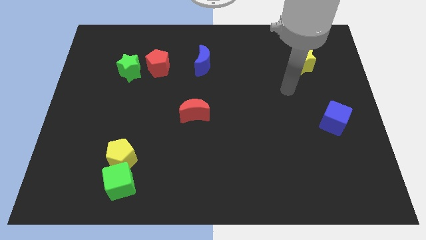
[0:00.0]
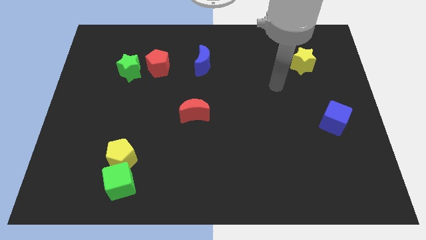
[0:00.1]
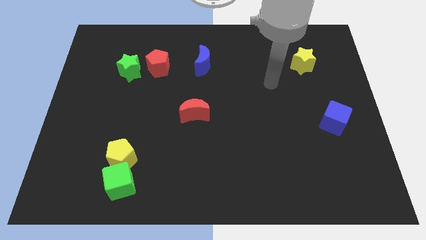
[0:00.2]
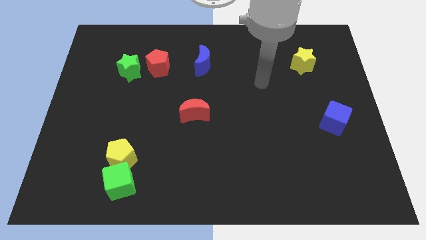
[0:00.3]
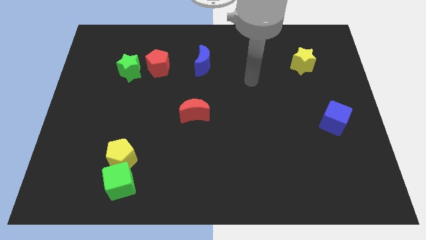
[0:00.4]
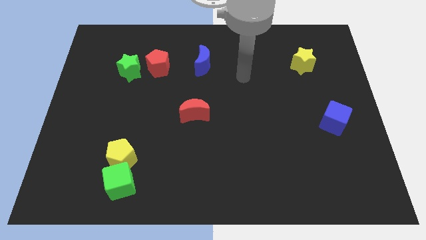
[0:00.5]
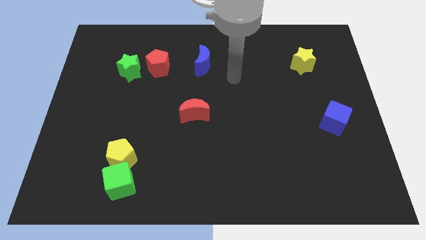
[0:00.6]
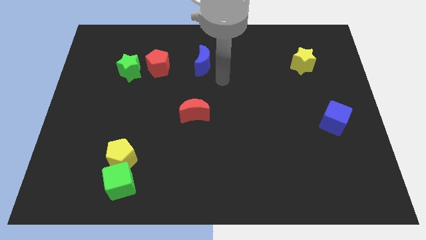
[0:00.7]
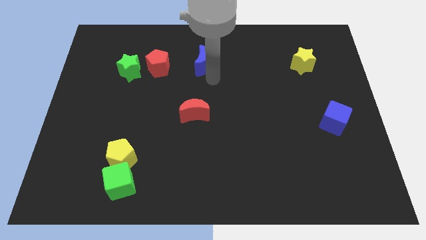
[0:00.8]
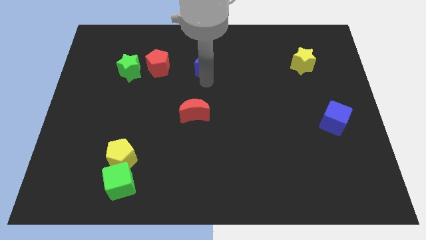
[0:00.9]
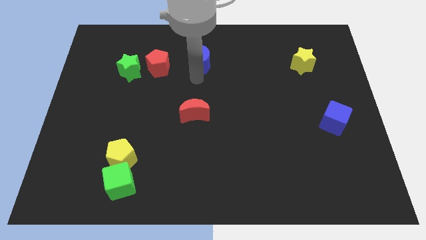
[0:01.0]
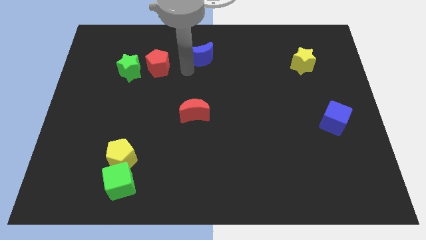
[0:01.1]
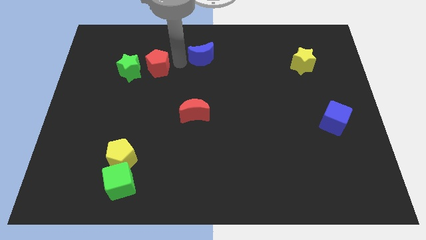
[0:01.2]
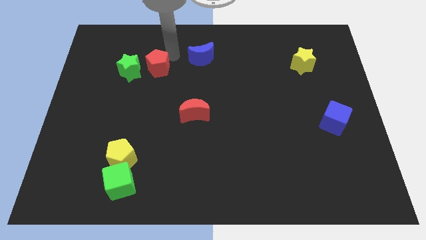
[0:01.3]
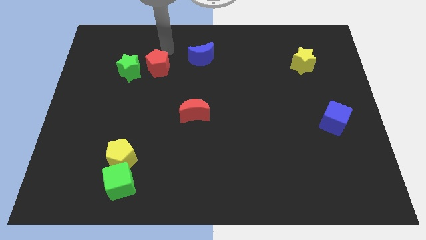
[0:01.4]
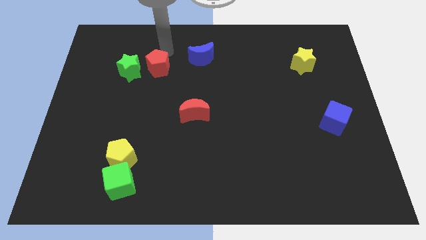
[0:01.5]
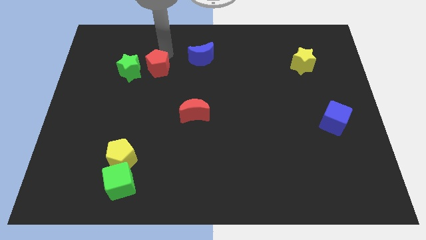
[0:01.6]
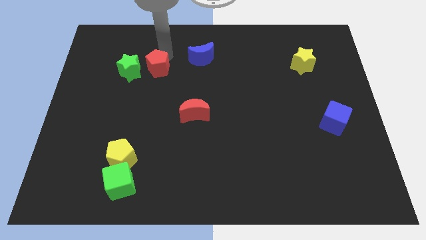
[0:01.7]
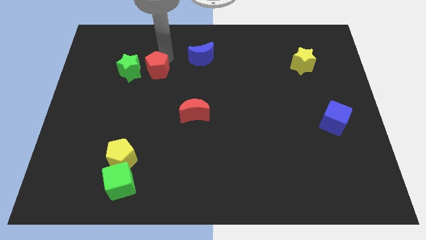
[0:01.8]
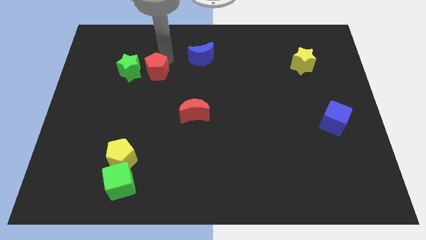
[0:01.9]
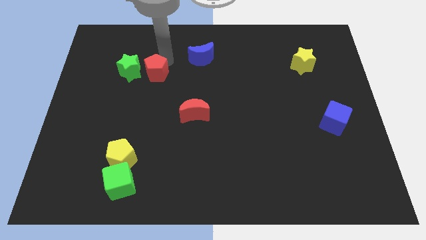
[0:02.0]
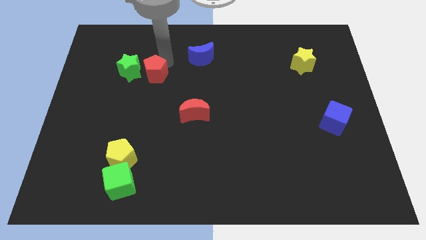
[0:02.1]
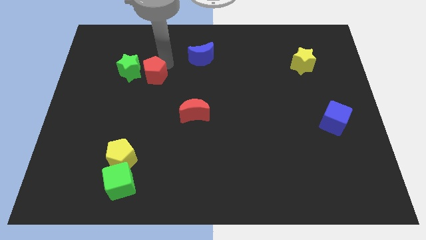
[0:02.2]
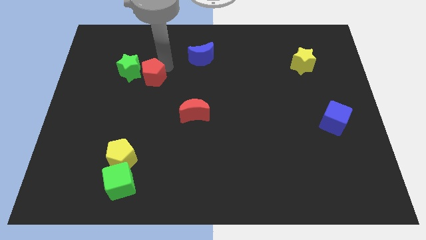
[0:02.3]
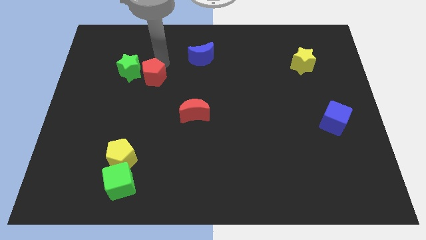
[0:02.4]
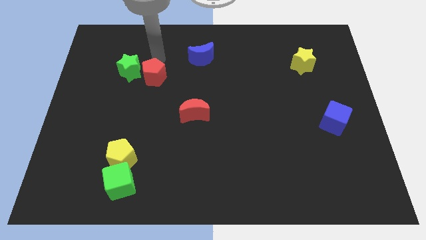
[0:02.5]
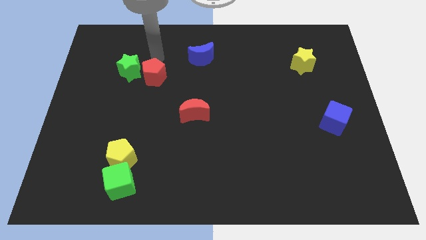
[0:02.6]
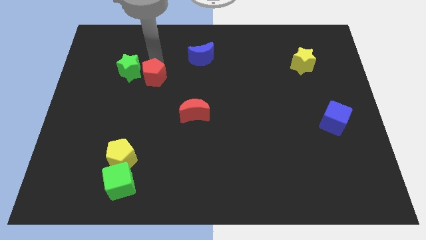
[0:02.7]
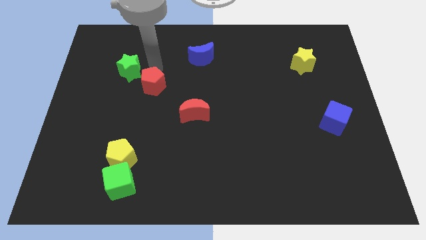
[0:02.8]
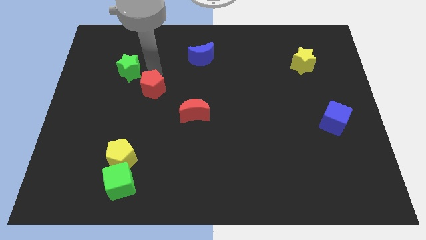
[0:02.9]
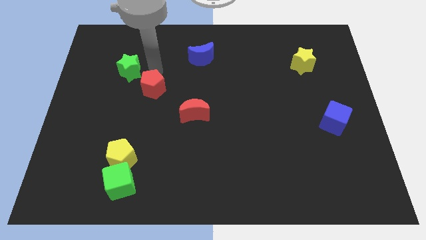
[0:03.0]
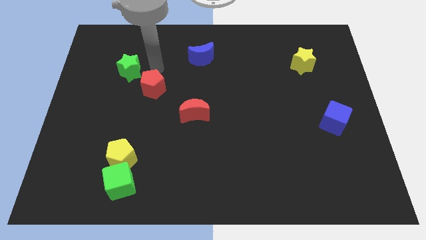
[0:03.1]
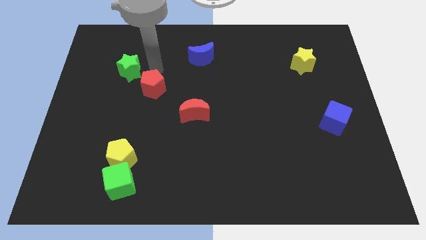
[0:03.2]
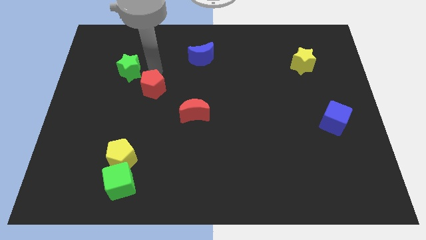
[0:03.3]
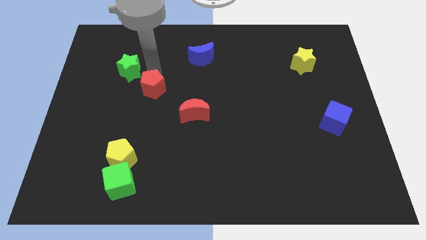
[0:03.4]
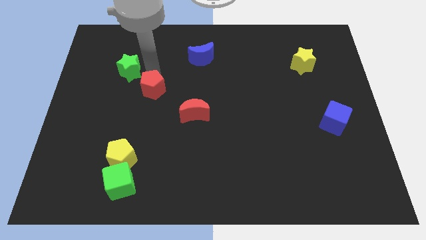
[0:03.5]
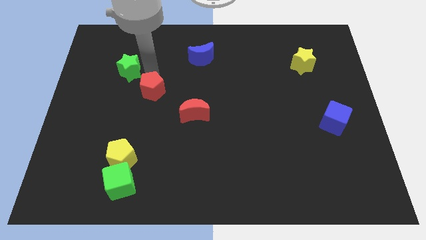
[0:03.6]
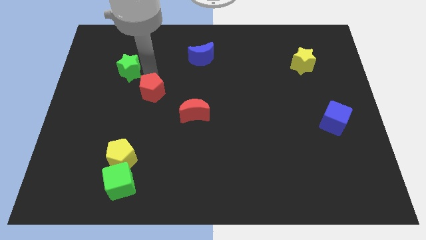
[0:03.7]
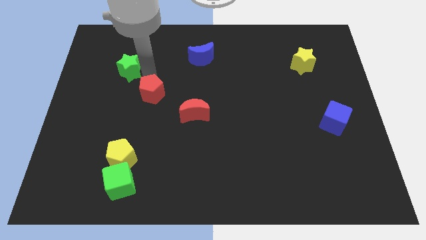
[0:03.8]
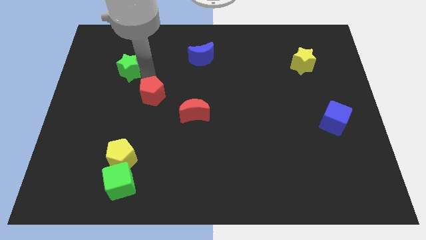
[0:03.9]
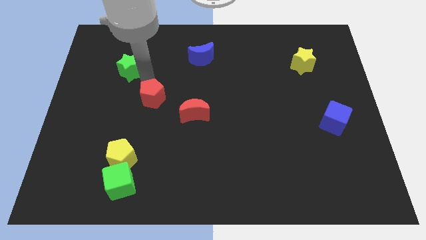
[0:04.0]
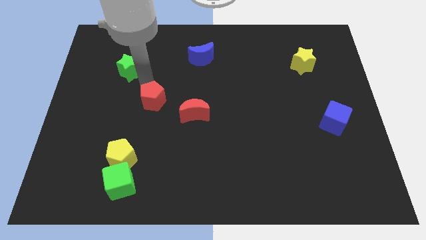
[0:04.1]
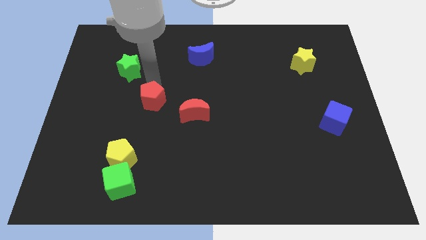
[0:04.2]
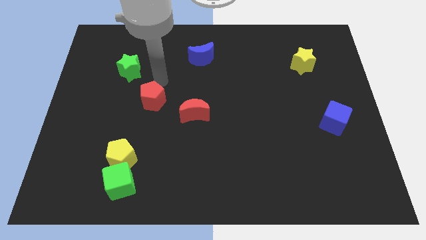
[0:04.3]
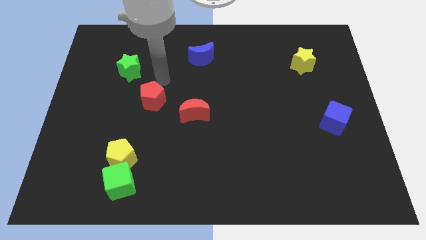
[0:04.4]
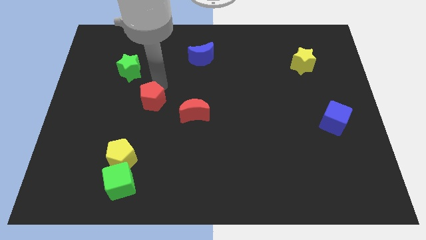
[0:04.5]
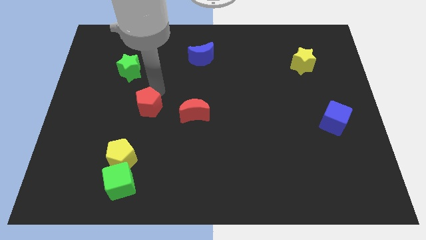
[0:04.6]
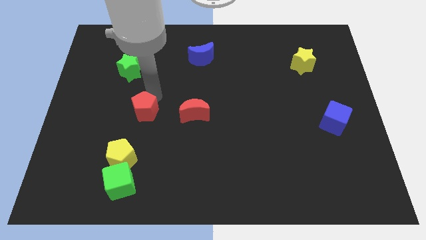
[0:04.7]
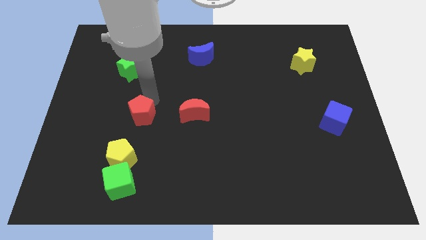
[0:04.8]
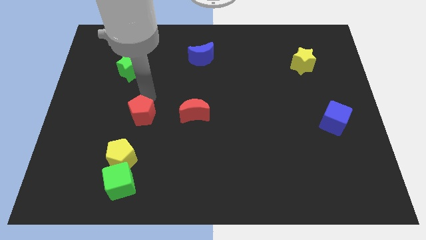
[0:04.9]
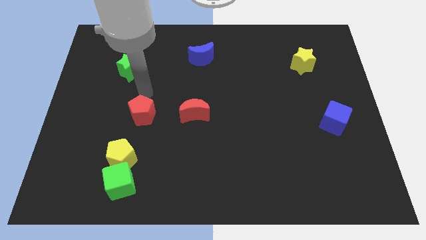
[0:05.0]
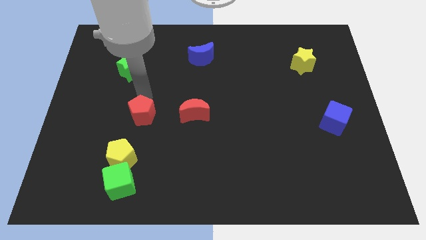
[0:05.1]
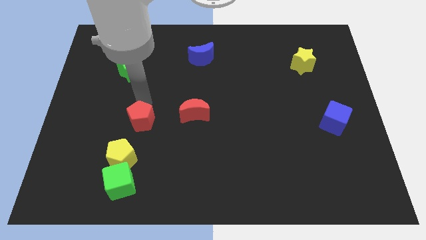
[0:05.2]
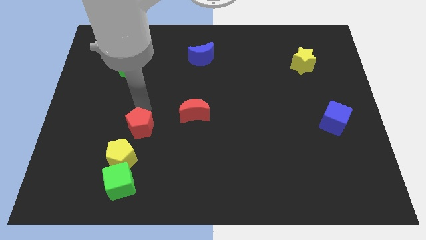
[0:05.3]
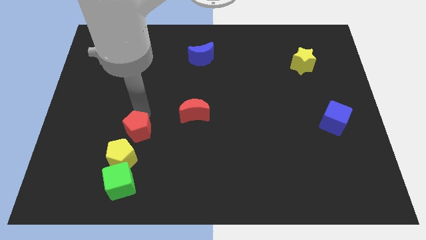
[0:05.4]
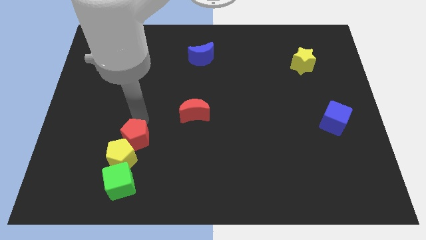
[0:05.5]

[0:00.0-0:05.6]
slide the red pentagon downwards

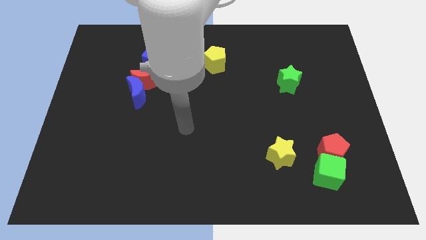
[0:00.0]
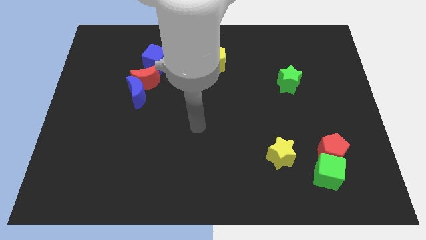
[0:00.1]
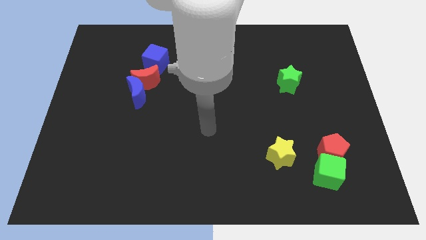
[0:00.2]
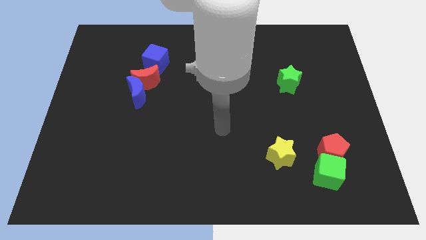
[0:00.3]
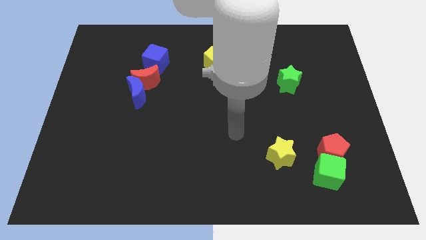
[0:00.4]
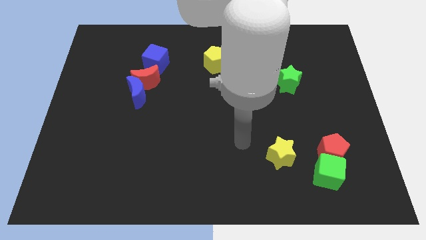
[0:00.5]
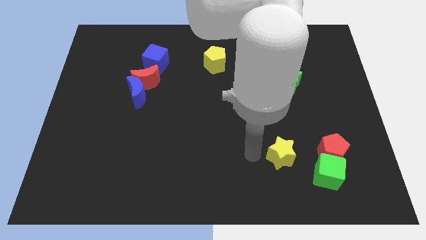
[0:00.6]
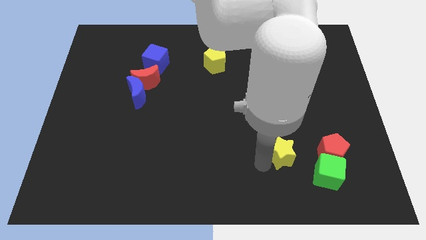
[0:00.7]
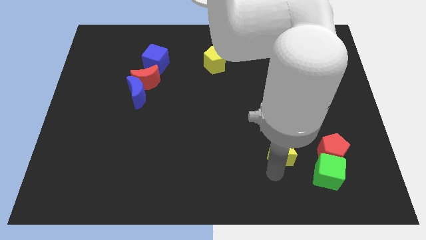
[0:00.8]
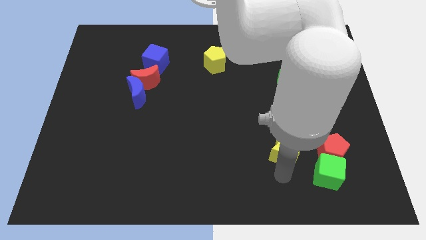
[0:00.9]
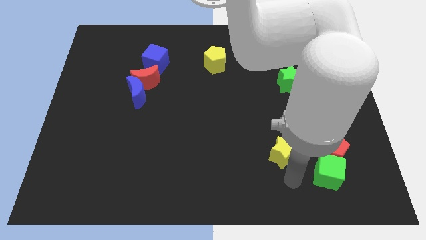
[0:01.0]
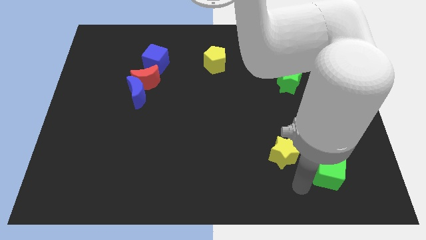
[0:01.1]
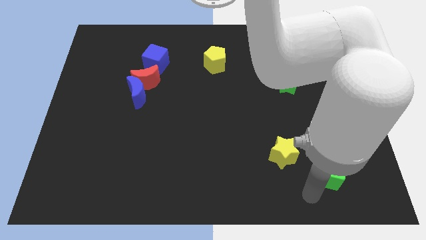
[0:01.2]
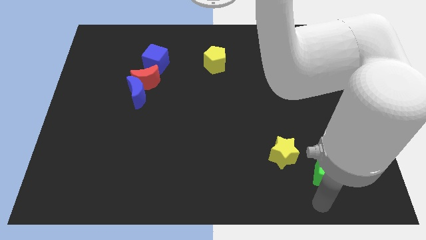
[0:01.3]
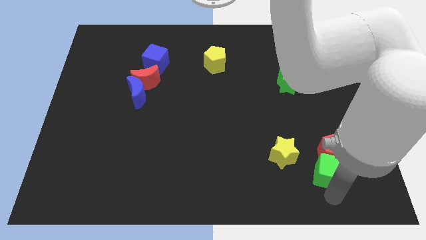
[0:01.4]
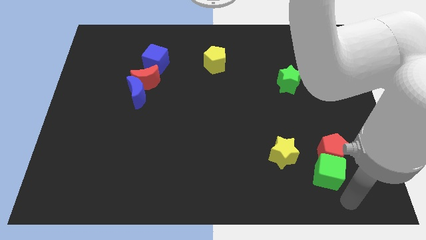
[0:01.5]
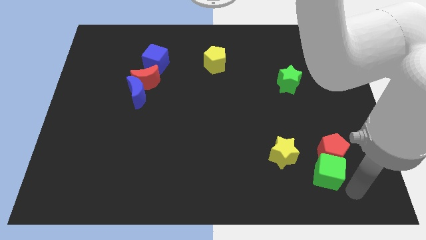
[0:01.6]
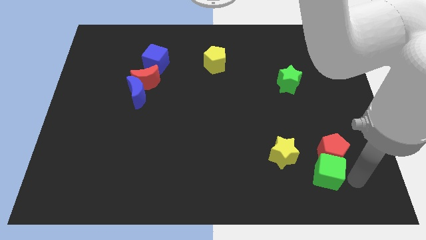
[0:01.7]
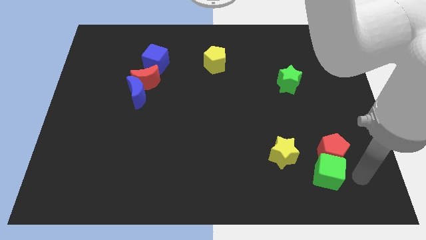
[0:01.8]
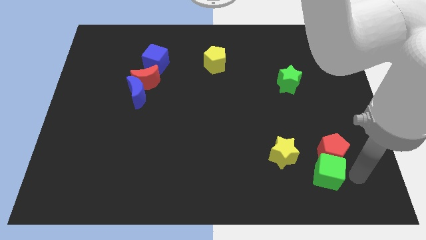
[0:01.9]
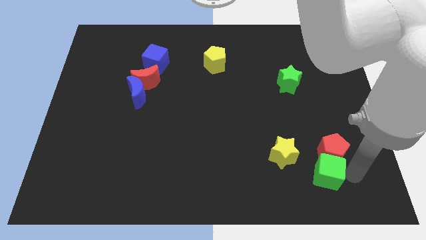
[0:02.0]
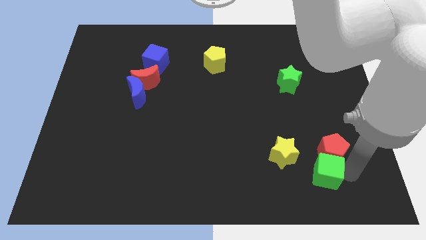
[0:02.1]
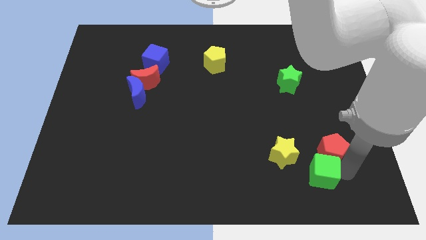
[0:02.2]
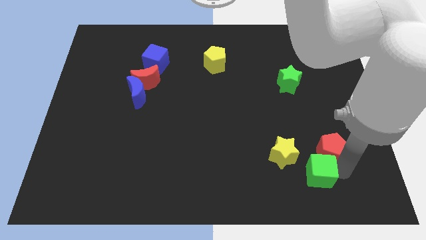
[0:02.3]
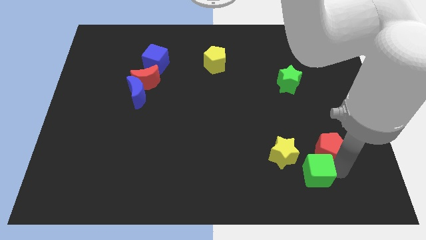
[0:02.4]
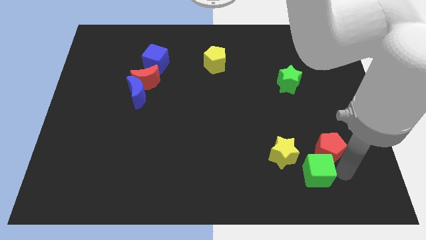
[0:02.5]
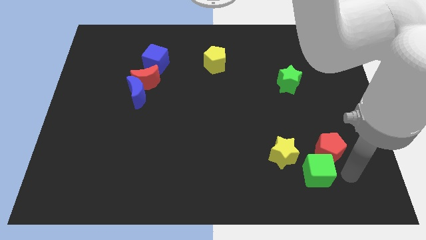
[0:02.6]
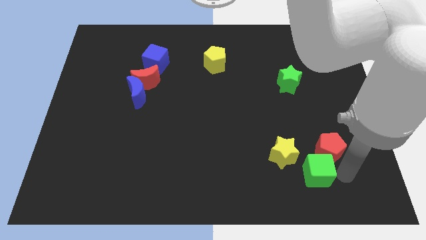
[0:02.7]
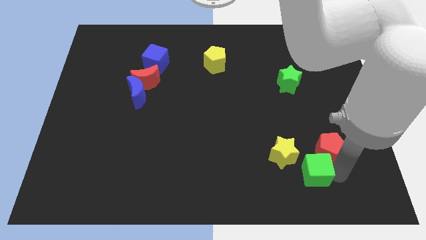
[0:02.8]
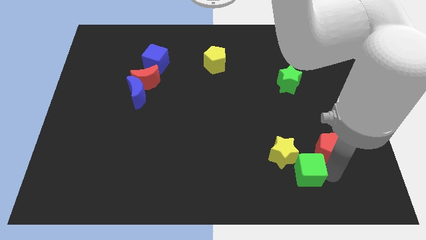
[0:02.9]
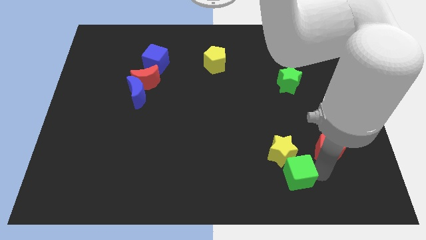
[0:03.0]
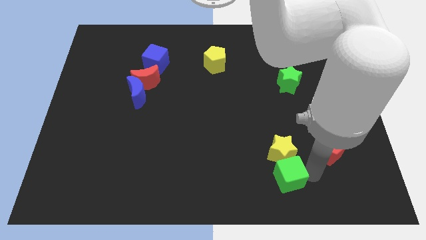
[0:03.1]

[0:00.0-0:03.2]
push the green cube left a little bit
